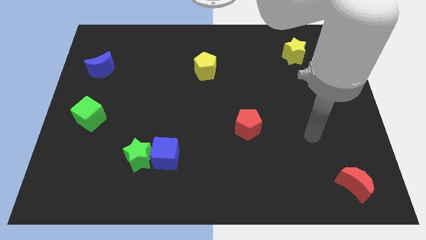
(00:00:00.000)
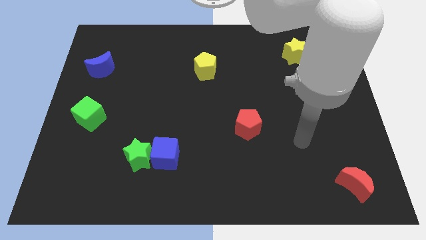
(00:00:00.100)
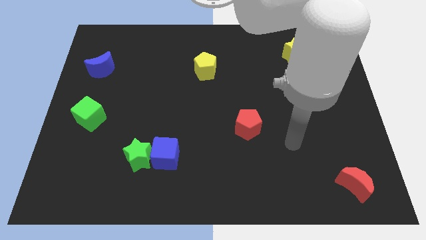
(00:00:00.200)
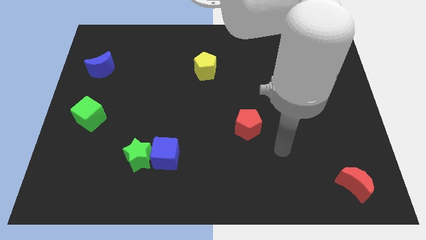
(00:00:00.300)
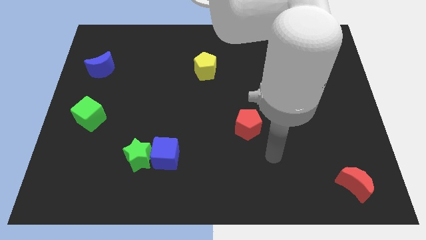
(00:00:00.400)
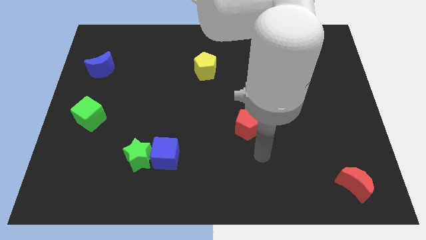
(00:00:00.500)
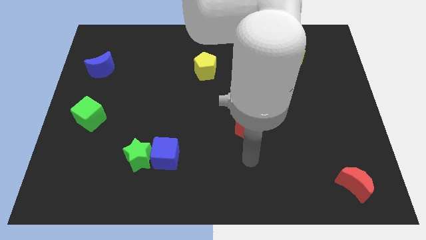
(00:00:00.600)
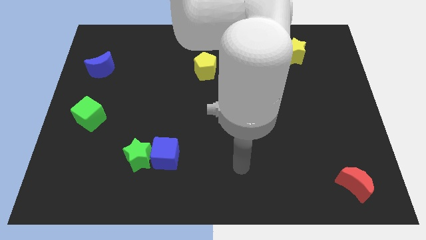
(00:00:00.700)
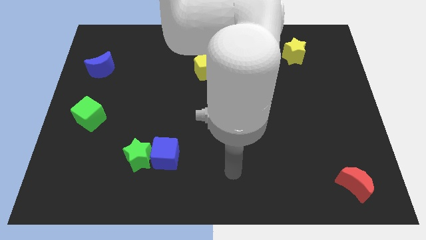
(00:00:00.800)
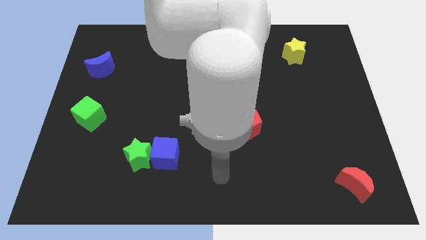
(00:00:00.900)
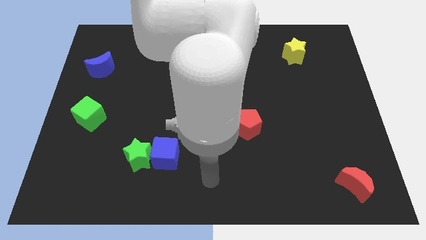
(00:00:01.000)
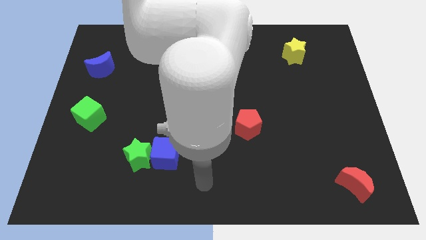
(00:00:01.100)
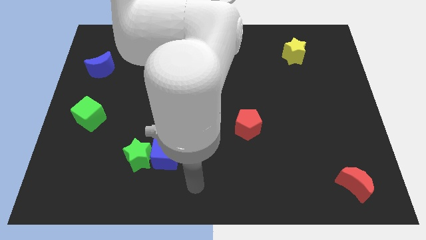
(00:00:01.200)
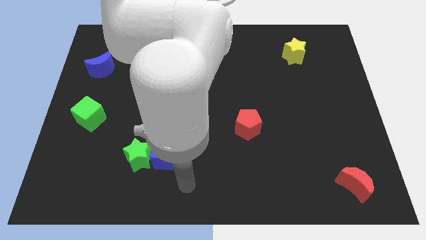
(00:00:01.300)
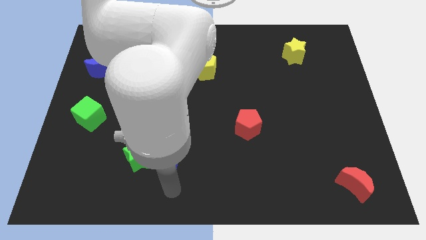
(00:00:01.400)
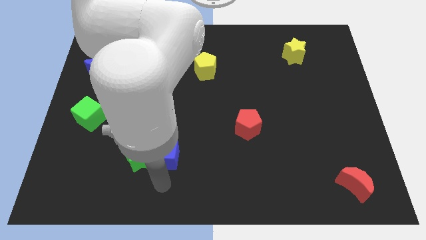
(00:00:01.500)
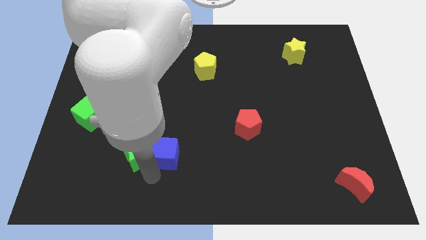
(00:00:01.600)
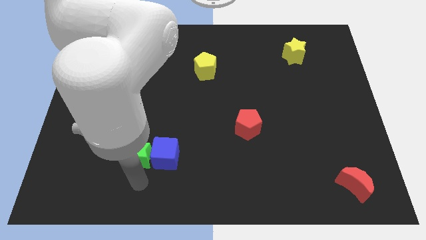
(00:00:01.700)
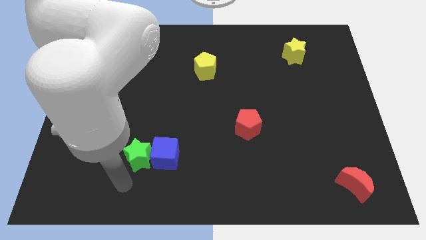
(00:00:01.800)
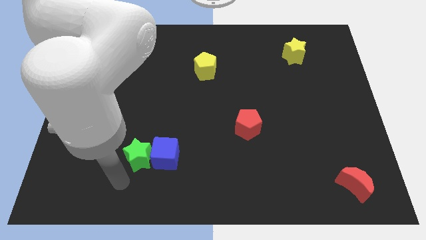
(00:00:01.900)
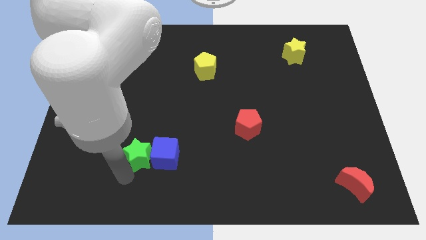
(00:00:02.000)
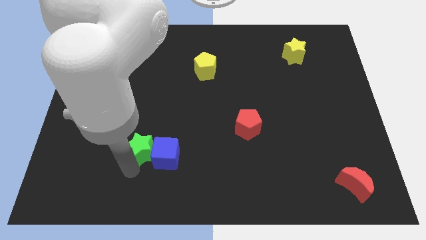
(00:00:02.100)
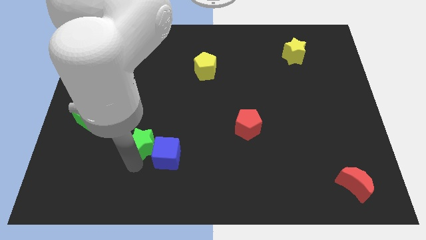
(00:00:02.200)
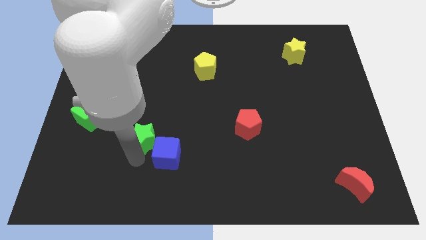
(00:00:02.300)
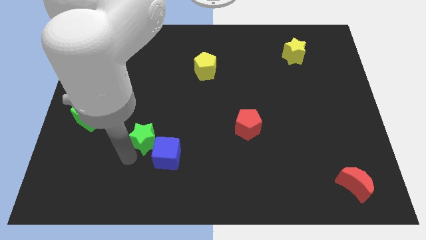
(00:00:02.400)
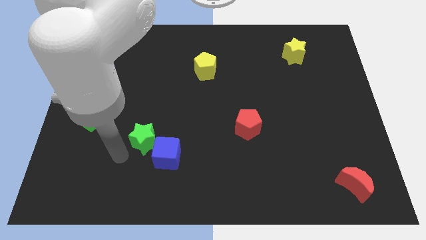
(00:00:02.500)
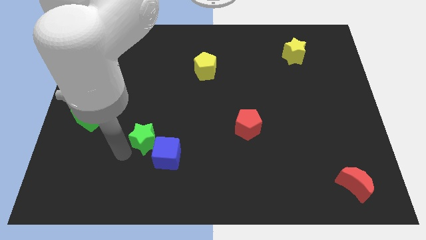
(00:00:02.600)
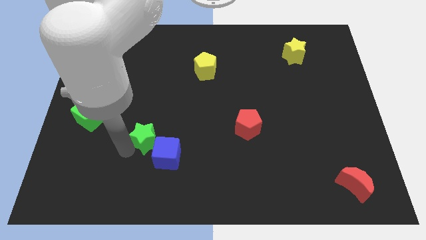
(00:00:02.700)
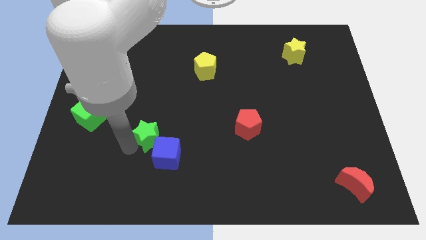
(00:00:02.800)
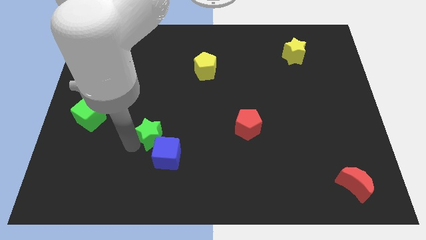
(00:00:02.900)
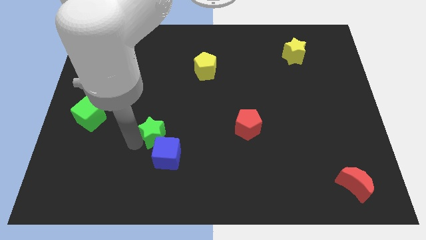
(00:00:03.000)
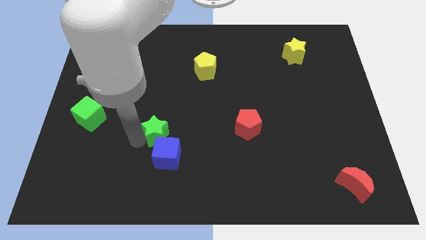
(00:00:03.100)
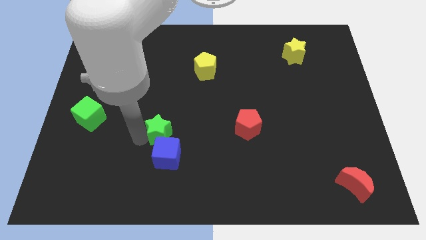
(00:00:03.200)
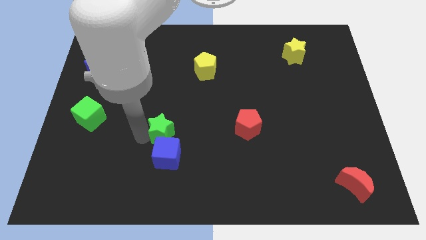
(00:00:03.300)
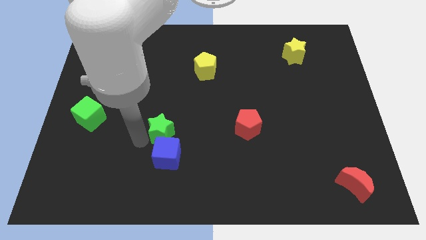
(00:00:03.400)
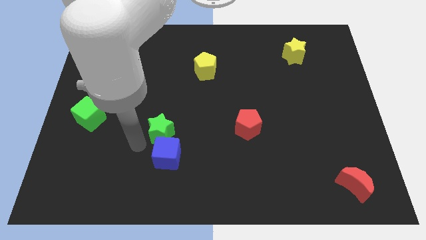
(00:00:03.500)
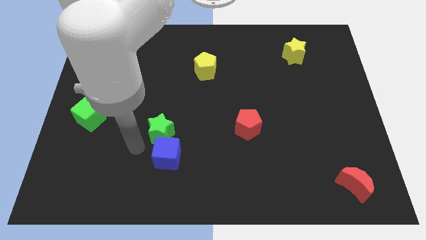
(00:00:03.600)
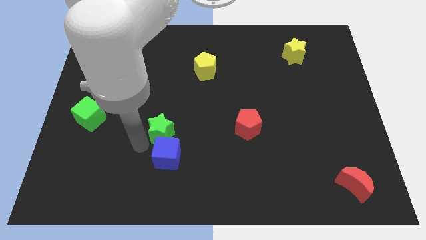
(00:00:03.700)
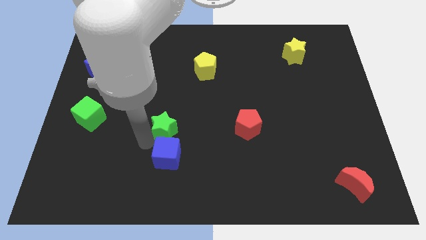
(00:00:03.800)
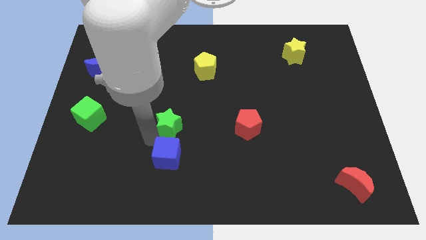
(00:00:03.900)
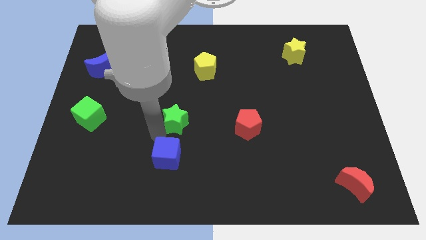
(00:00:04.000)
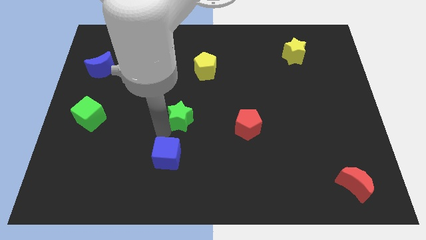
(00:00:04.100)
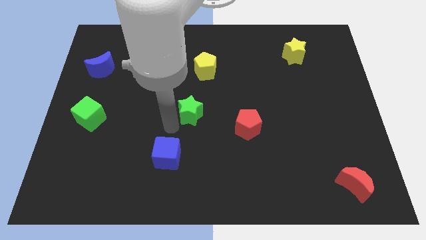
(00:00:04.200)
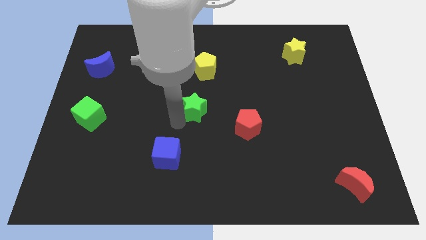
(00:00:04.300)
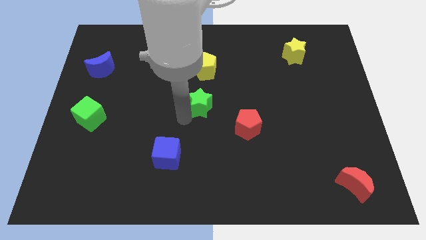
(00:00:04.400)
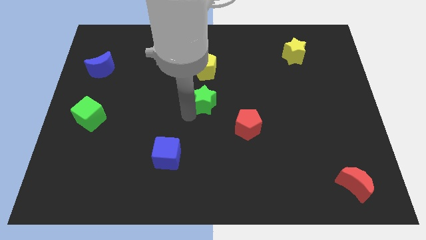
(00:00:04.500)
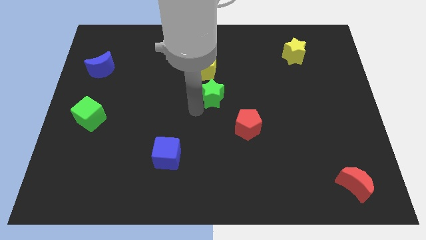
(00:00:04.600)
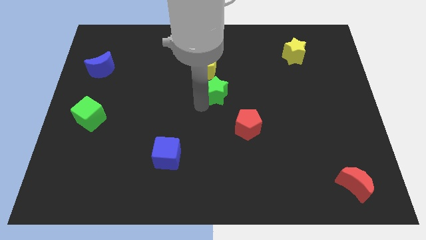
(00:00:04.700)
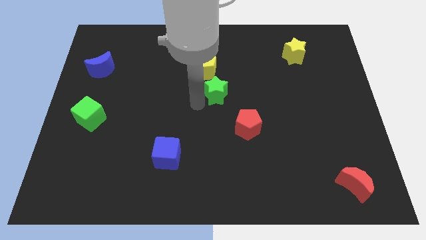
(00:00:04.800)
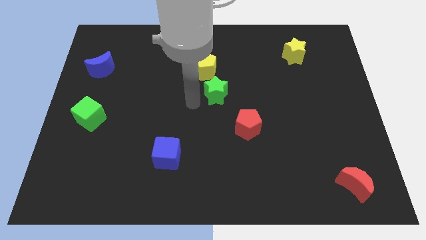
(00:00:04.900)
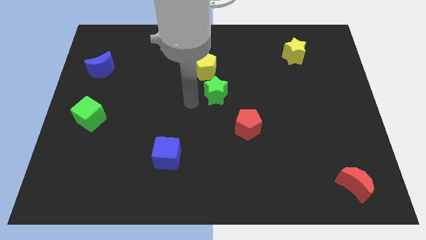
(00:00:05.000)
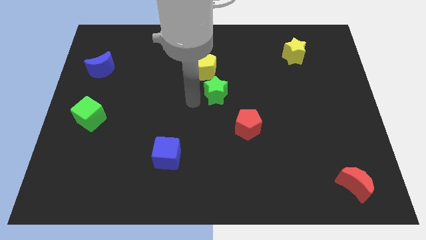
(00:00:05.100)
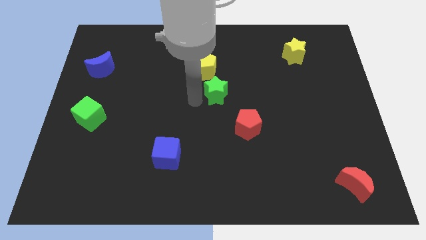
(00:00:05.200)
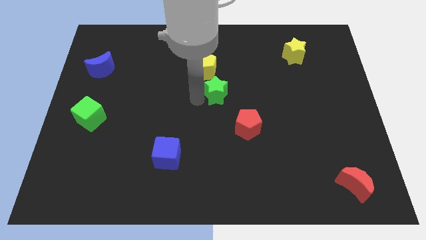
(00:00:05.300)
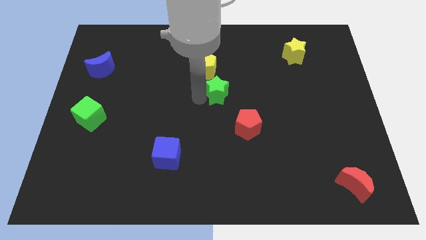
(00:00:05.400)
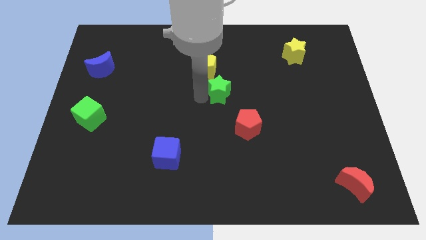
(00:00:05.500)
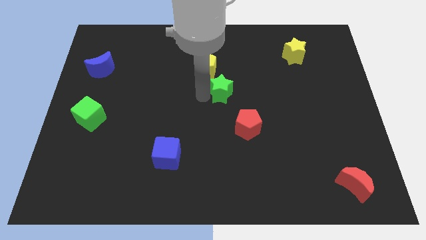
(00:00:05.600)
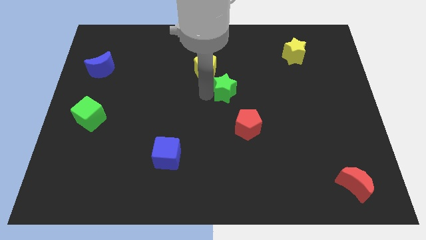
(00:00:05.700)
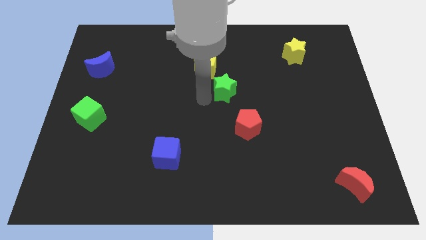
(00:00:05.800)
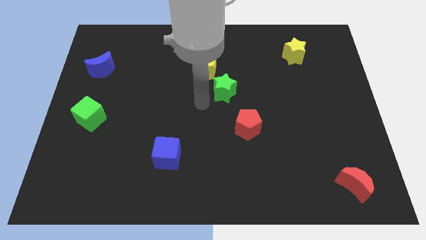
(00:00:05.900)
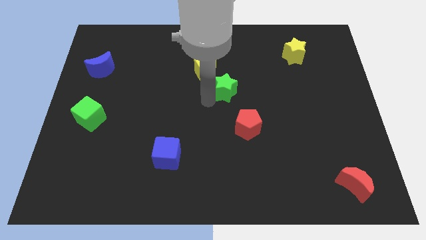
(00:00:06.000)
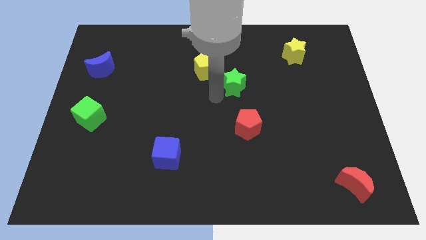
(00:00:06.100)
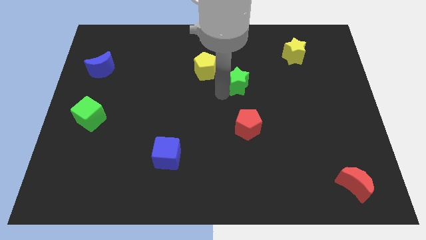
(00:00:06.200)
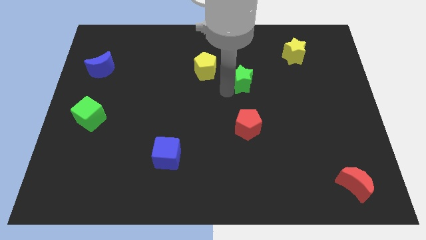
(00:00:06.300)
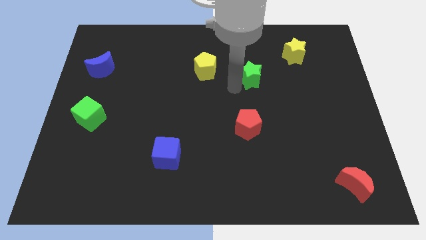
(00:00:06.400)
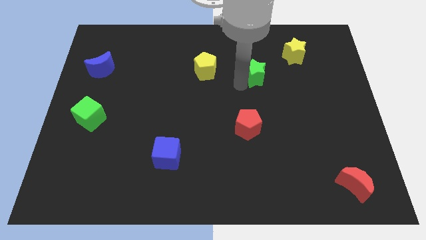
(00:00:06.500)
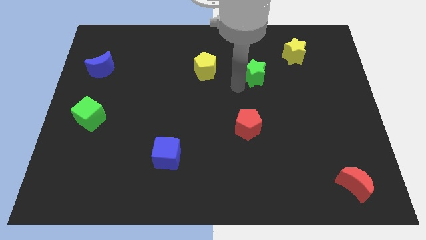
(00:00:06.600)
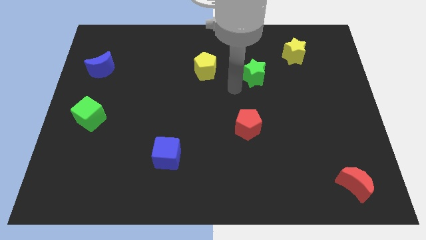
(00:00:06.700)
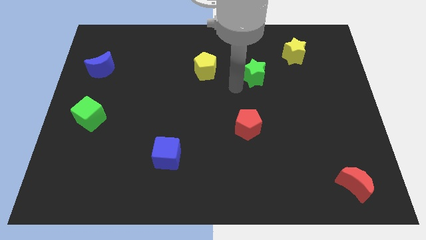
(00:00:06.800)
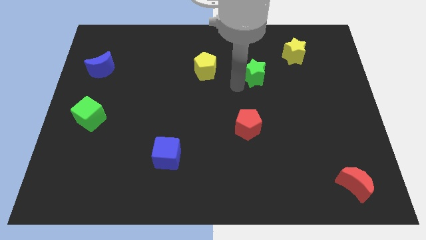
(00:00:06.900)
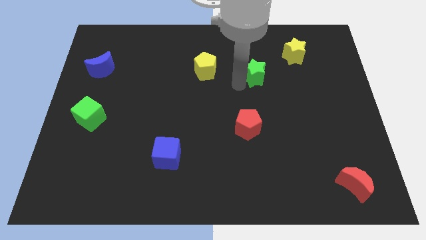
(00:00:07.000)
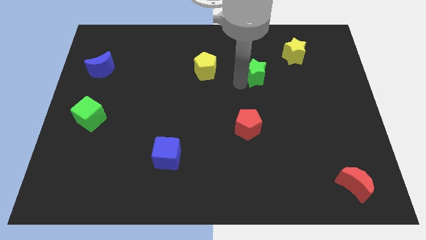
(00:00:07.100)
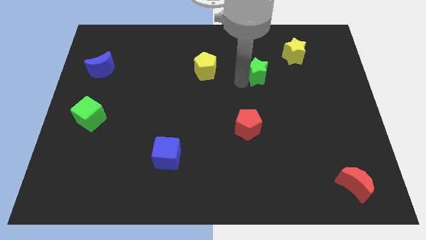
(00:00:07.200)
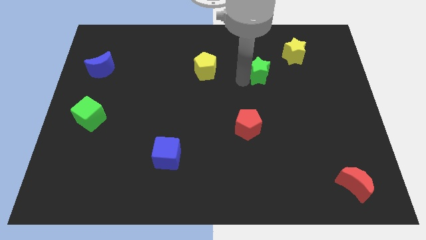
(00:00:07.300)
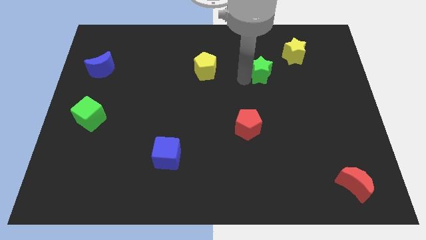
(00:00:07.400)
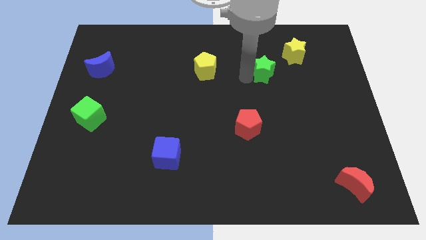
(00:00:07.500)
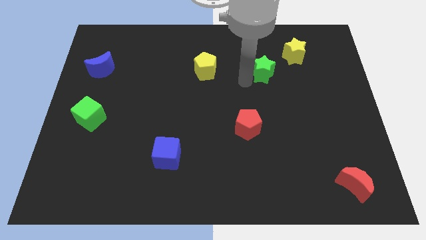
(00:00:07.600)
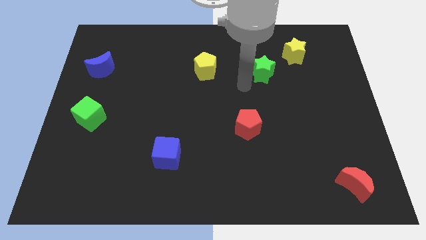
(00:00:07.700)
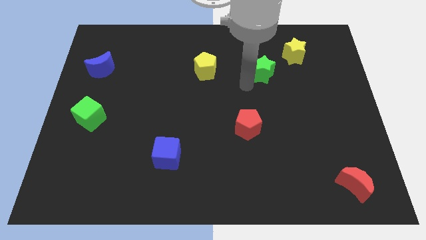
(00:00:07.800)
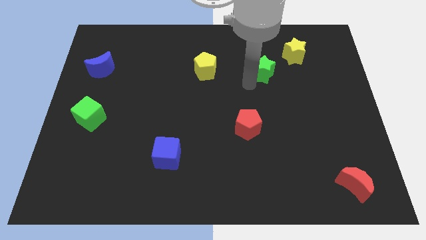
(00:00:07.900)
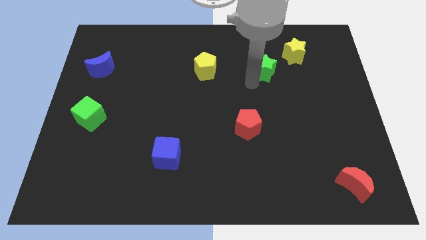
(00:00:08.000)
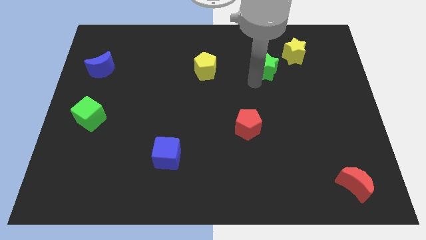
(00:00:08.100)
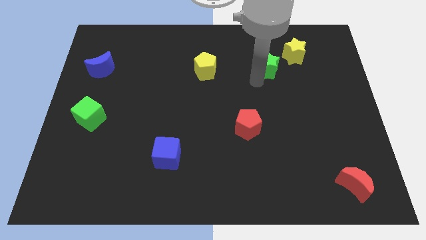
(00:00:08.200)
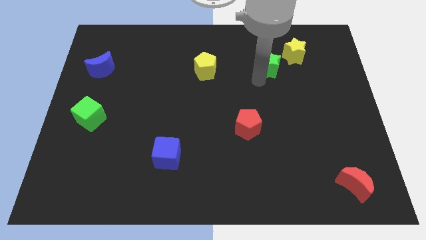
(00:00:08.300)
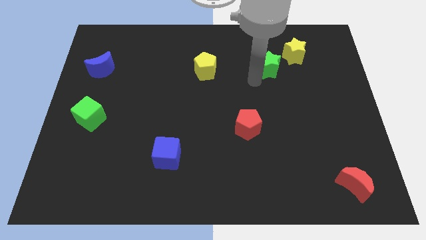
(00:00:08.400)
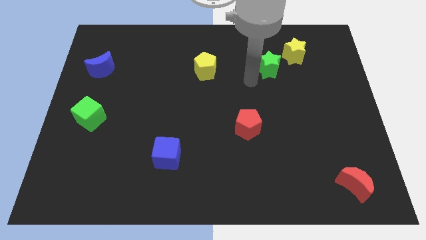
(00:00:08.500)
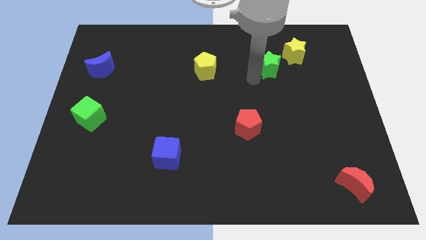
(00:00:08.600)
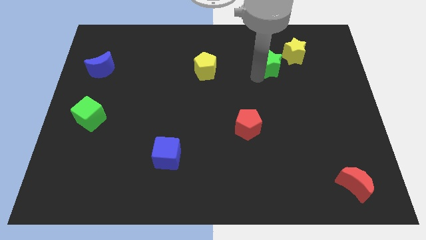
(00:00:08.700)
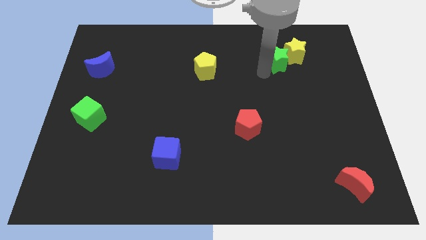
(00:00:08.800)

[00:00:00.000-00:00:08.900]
slide the green star close to the yellow star
